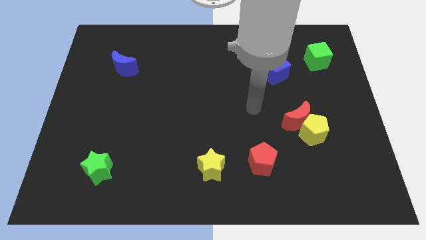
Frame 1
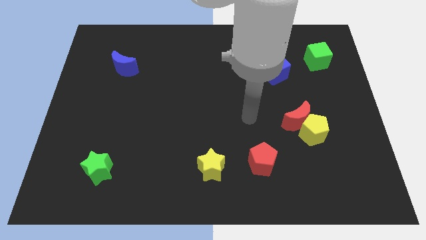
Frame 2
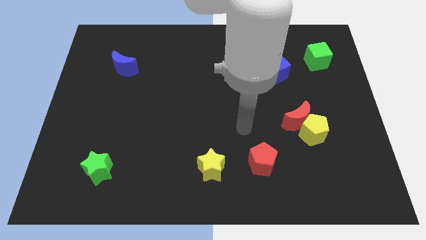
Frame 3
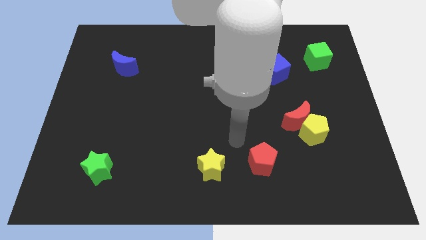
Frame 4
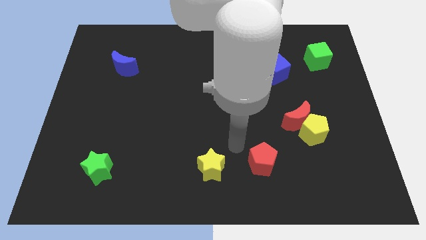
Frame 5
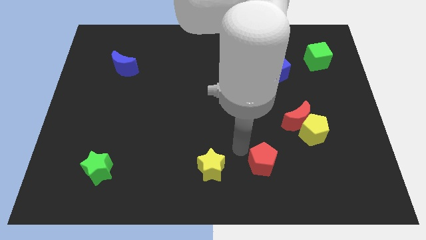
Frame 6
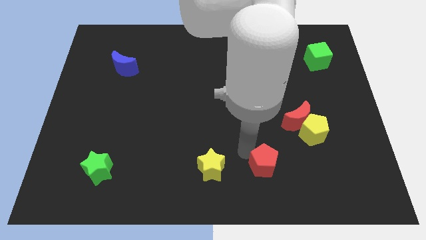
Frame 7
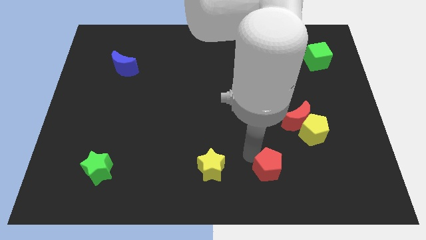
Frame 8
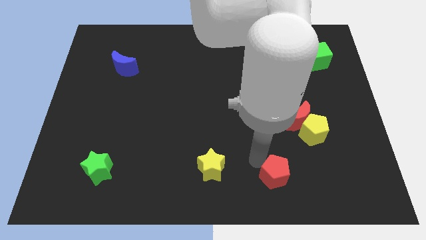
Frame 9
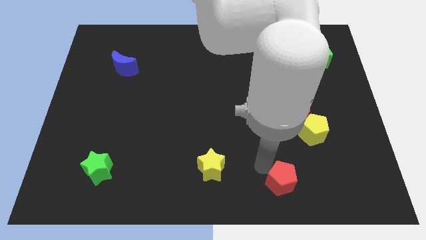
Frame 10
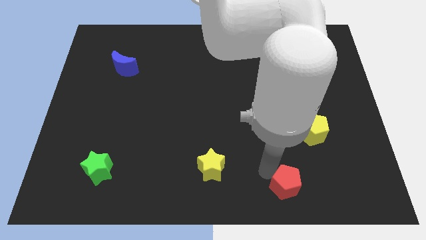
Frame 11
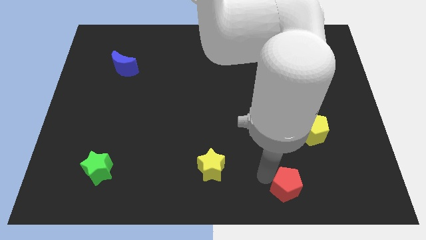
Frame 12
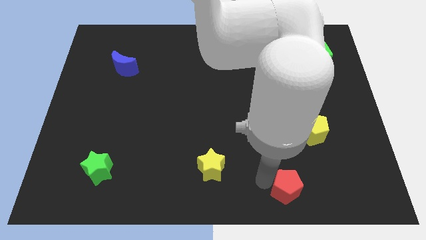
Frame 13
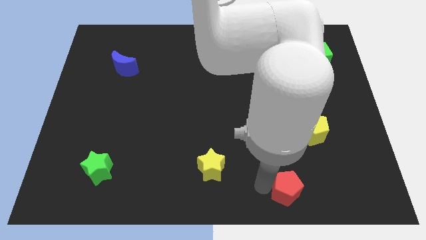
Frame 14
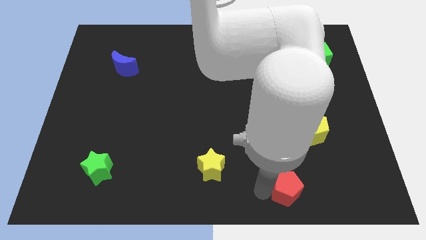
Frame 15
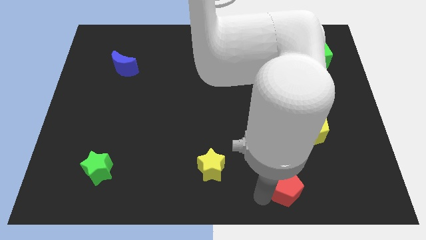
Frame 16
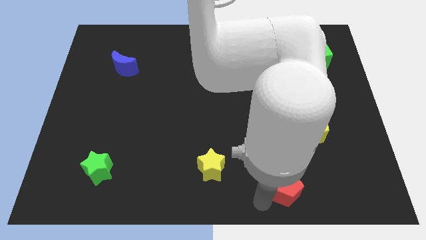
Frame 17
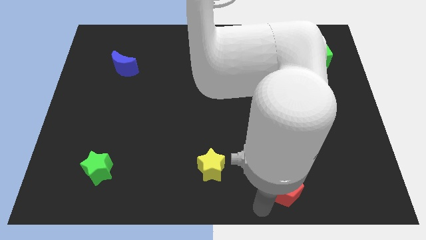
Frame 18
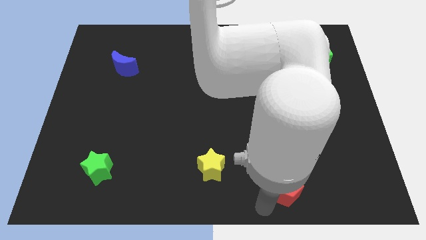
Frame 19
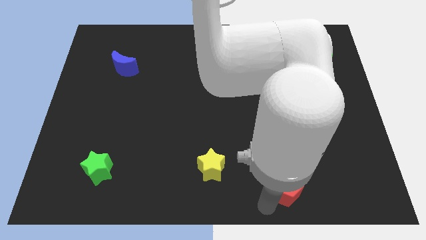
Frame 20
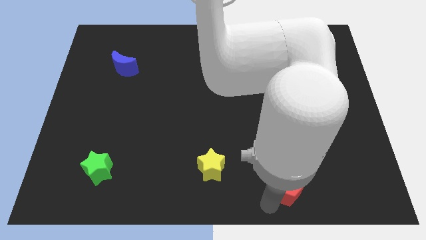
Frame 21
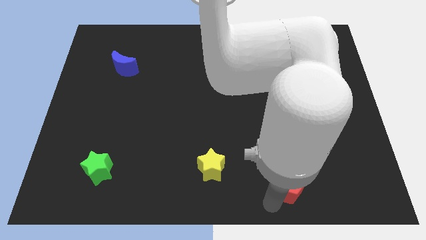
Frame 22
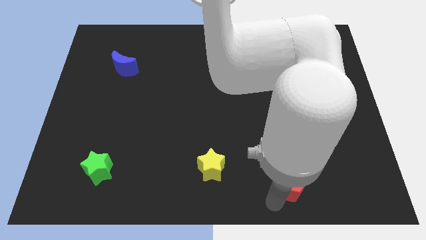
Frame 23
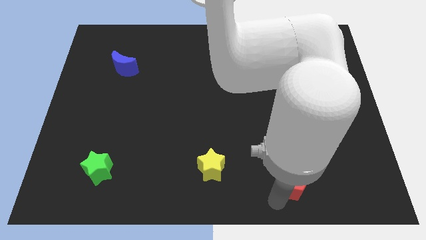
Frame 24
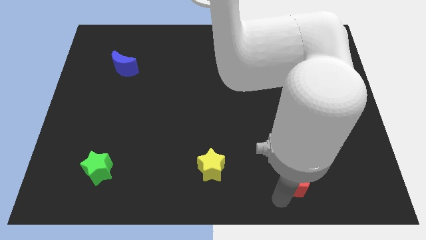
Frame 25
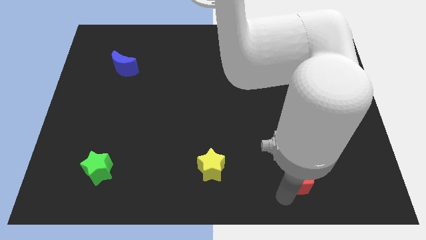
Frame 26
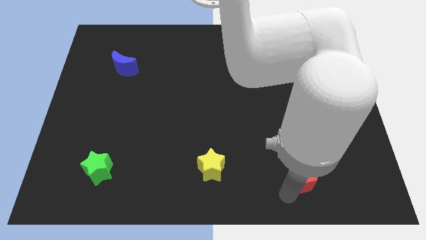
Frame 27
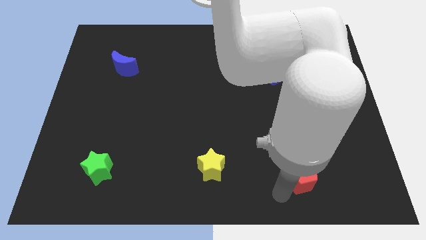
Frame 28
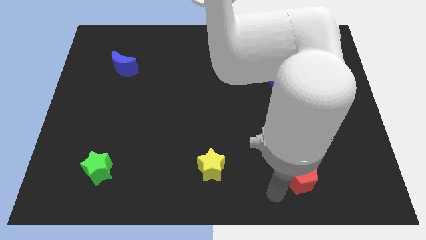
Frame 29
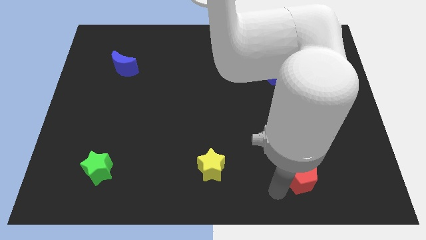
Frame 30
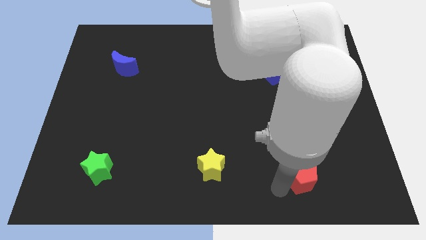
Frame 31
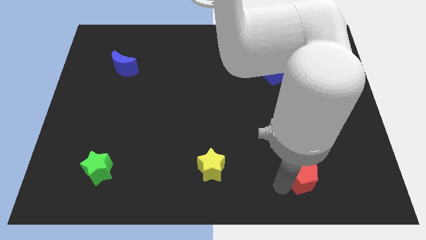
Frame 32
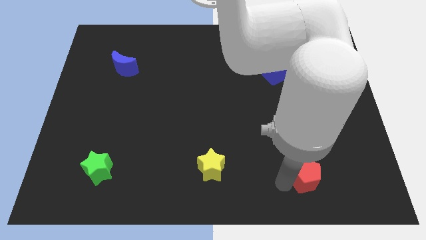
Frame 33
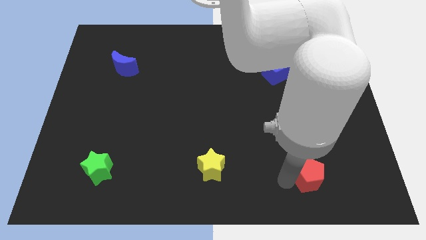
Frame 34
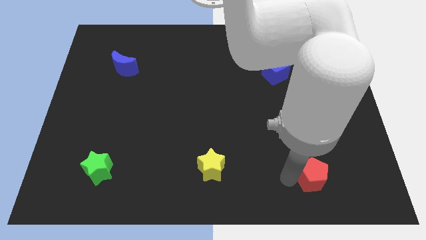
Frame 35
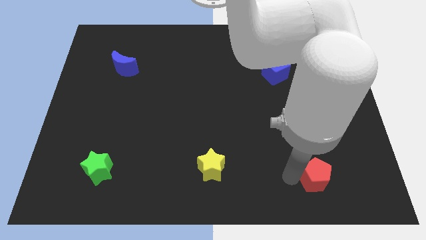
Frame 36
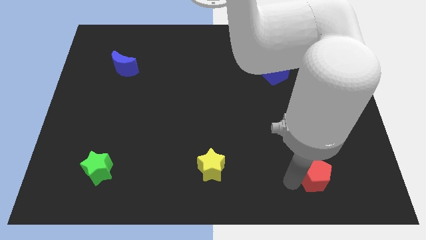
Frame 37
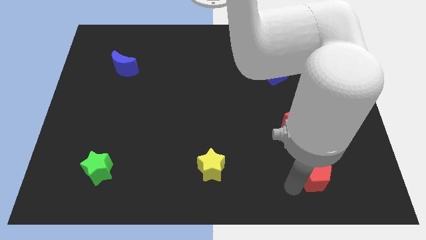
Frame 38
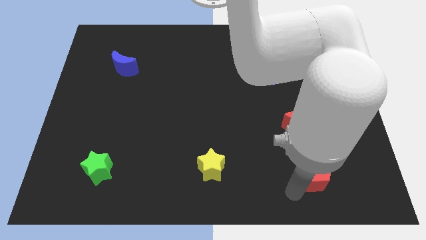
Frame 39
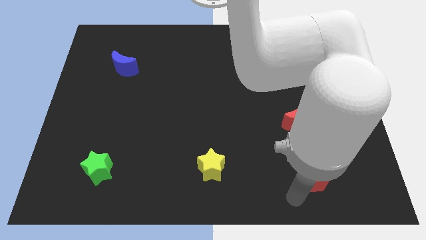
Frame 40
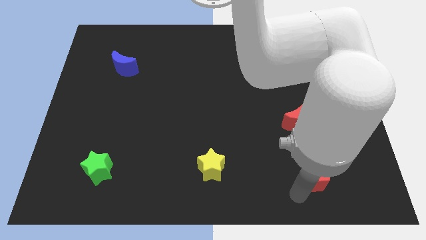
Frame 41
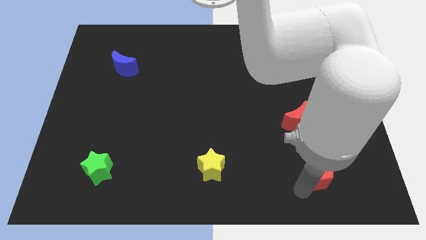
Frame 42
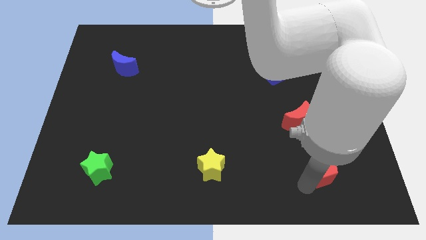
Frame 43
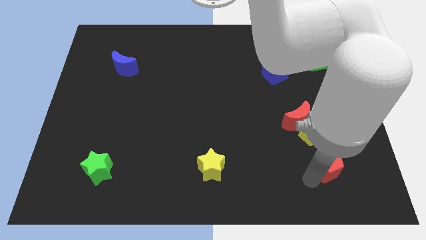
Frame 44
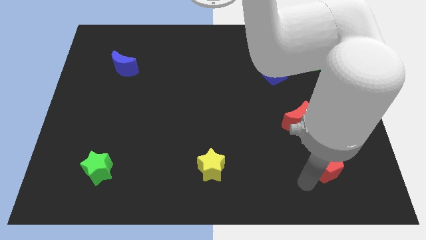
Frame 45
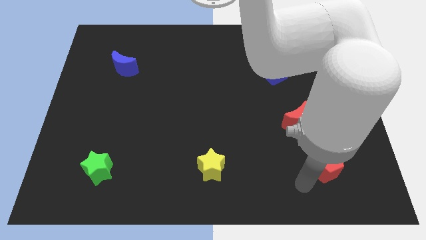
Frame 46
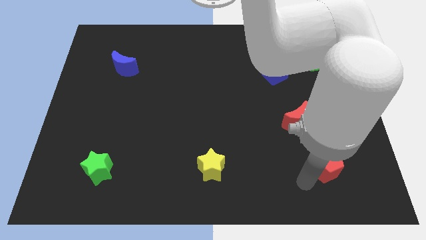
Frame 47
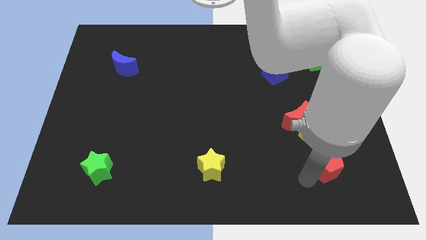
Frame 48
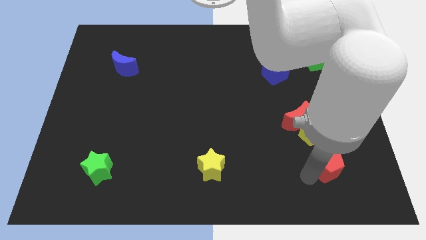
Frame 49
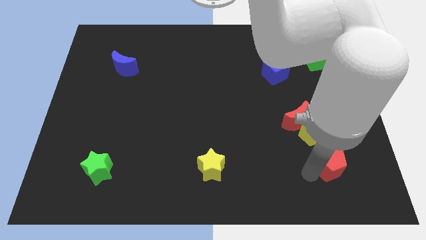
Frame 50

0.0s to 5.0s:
push the red pentagon diagonally down and to the right of the yellow pentagon

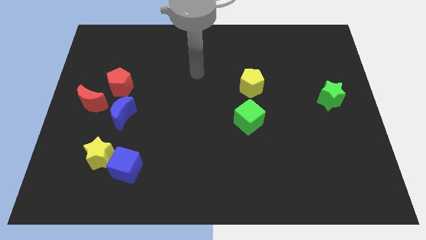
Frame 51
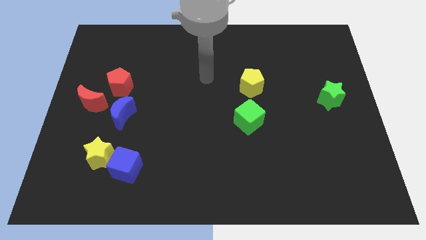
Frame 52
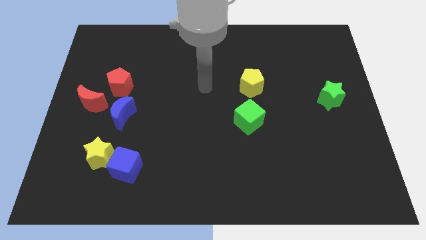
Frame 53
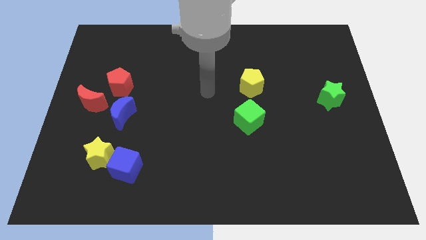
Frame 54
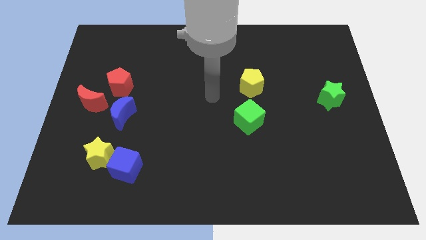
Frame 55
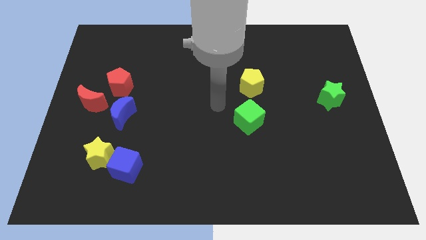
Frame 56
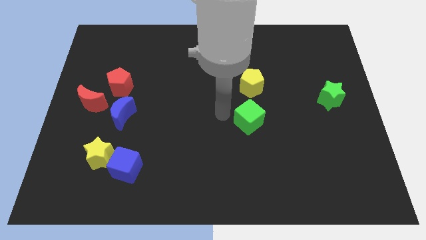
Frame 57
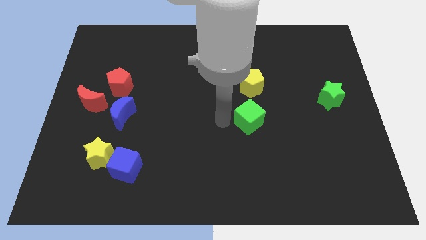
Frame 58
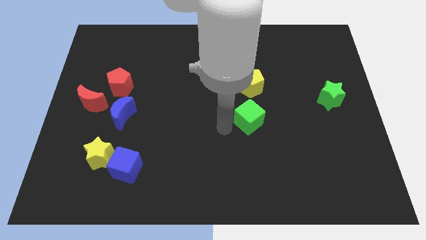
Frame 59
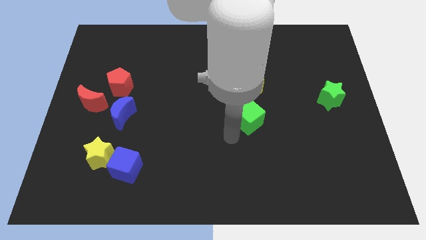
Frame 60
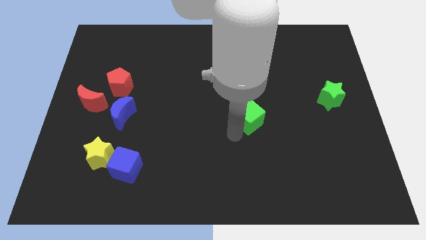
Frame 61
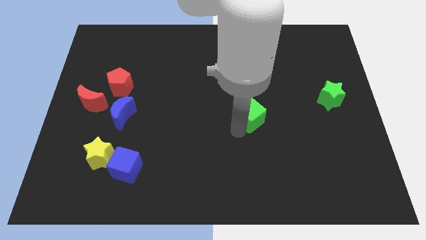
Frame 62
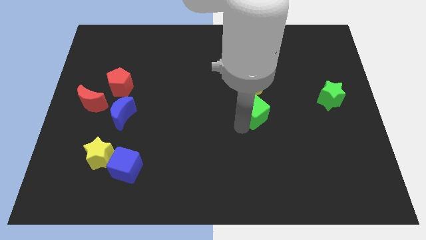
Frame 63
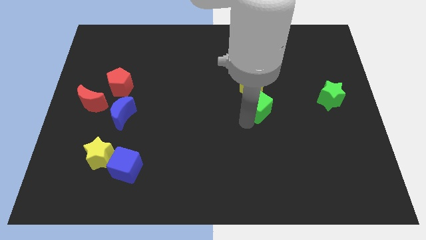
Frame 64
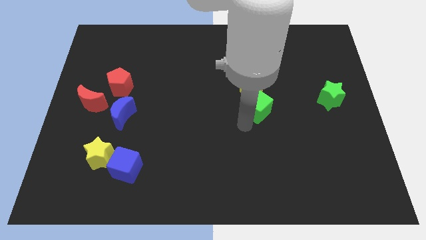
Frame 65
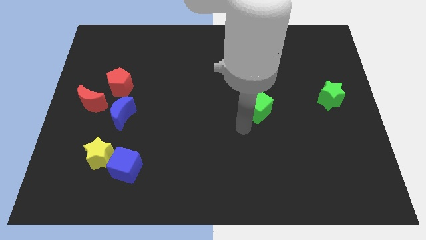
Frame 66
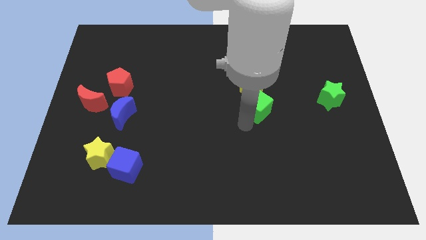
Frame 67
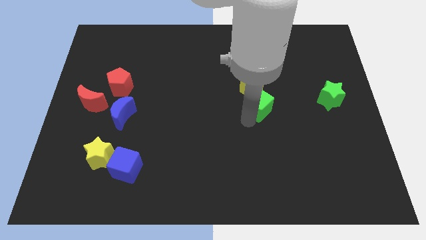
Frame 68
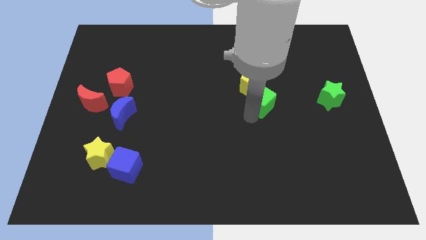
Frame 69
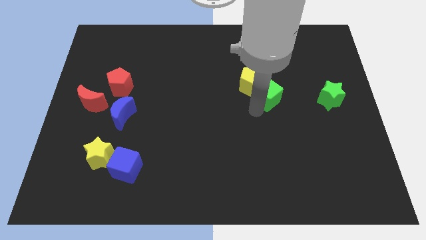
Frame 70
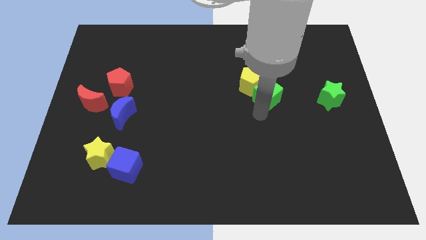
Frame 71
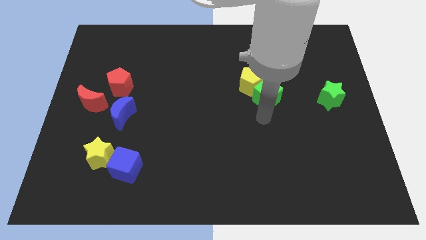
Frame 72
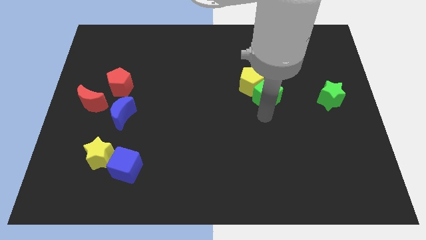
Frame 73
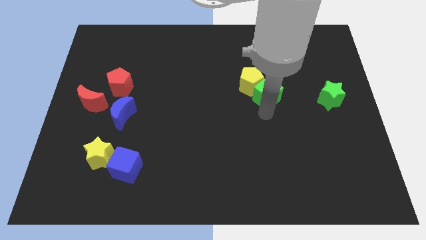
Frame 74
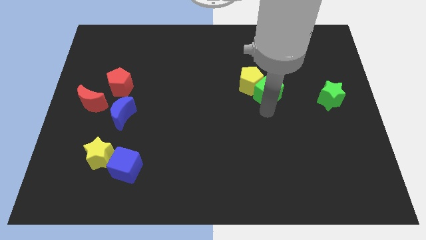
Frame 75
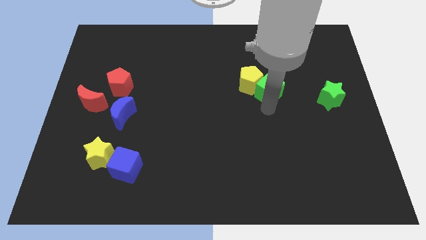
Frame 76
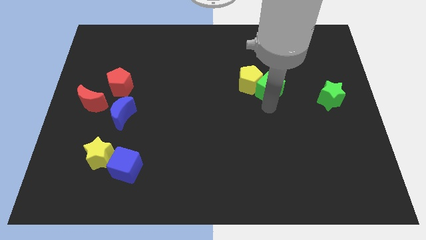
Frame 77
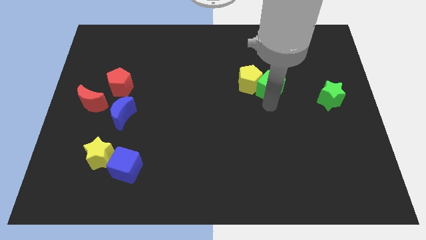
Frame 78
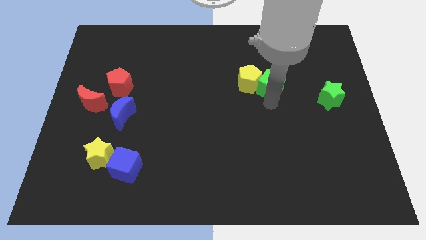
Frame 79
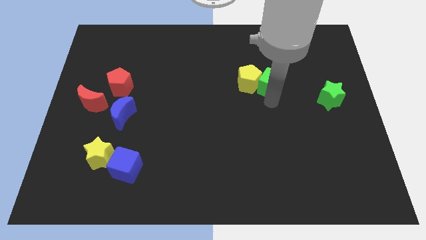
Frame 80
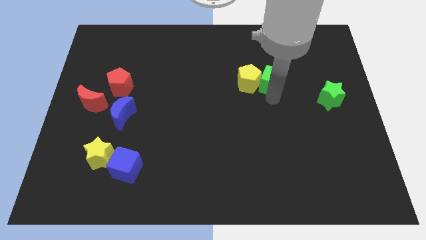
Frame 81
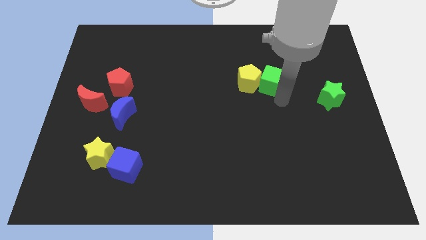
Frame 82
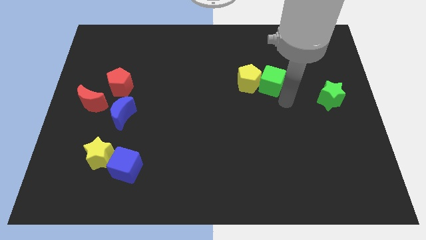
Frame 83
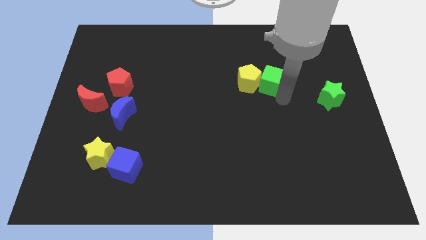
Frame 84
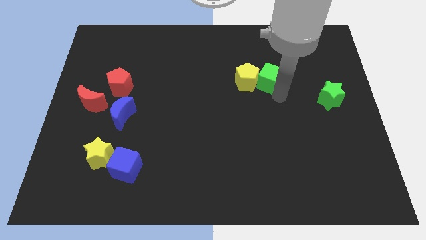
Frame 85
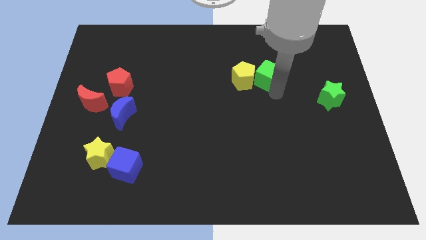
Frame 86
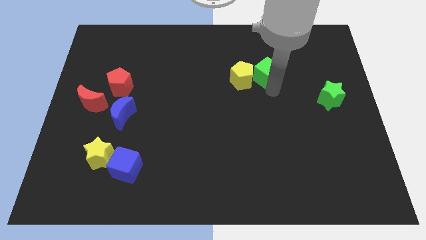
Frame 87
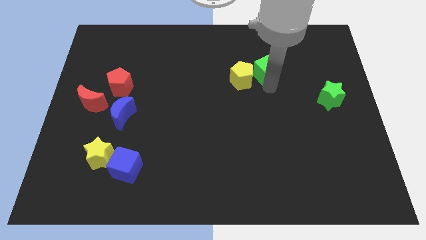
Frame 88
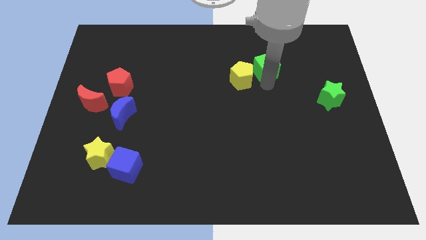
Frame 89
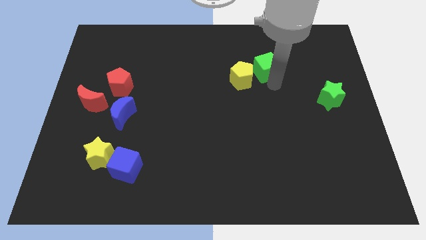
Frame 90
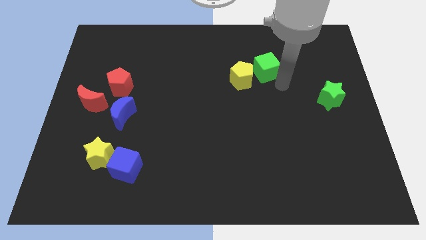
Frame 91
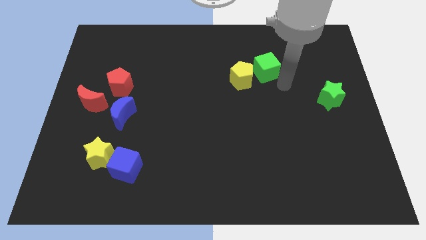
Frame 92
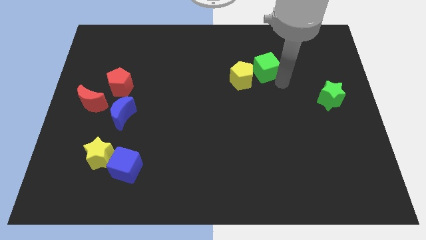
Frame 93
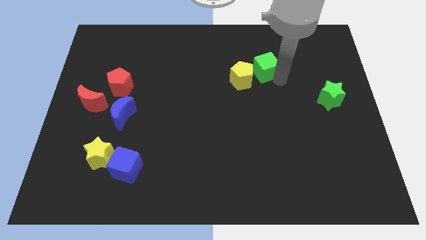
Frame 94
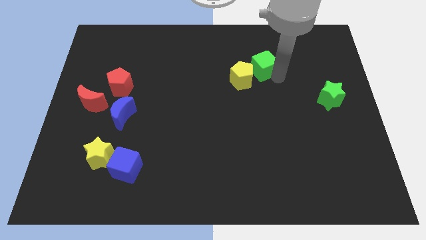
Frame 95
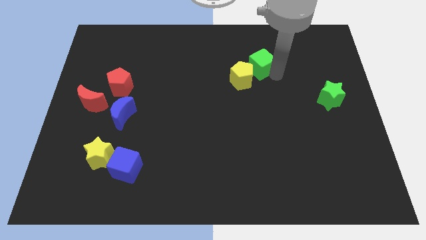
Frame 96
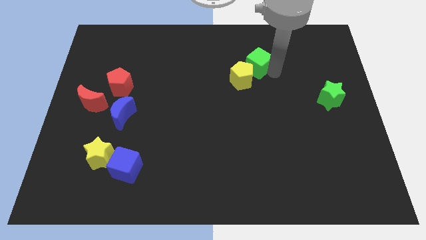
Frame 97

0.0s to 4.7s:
put the green cube to the top side of the yellow pentagon
